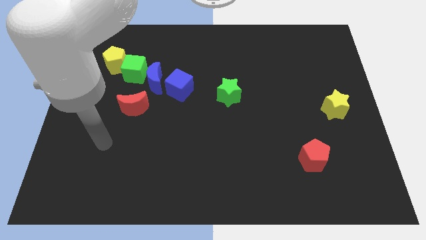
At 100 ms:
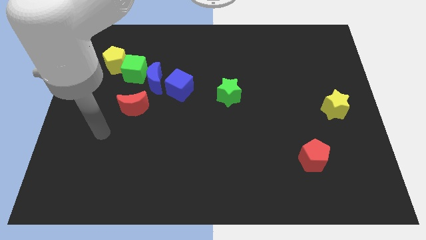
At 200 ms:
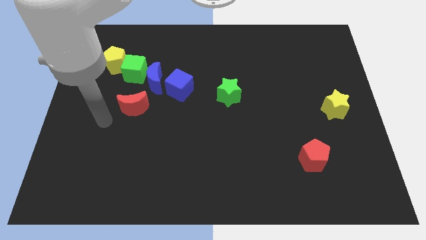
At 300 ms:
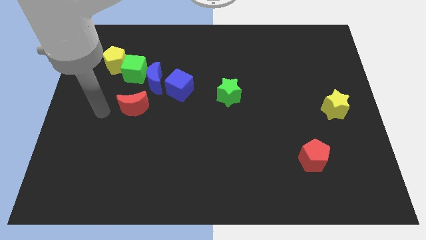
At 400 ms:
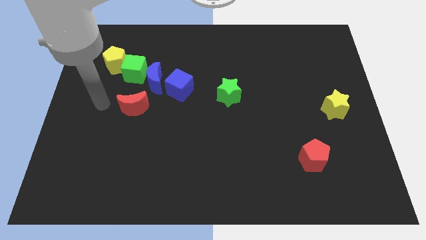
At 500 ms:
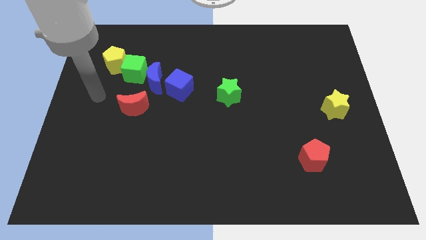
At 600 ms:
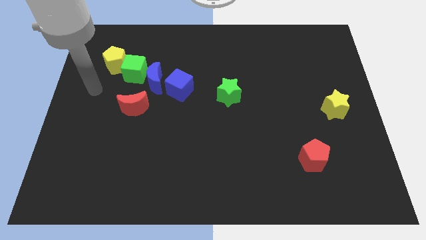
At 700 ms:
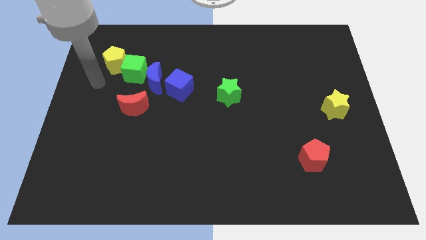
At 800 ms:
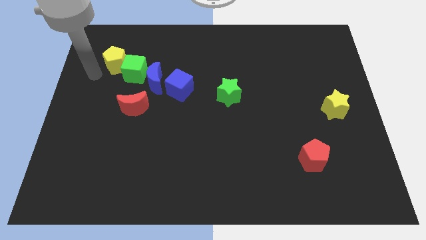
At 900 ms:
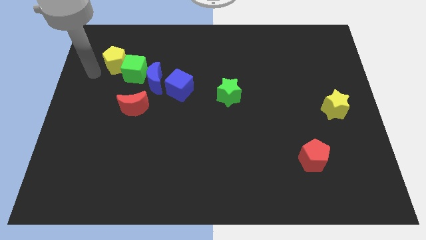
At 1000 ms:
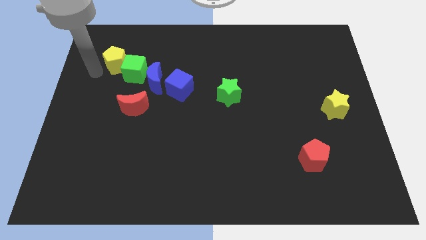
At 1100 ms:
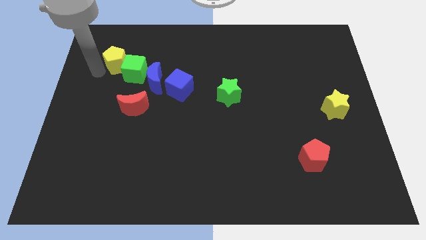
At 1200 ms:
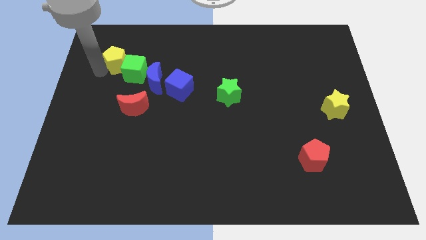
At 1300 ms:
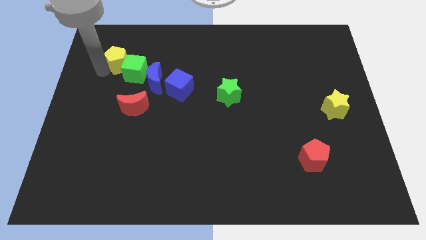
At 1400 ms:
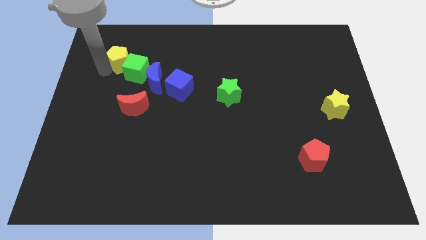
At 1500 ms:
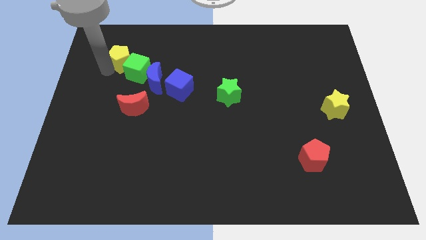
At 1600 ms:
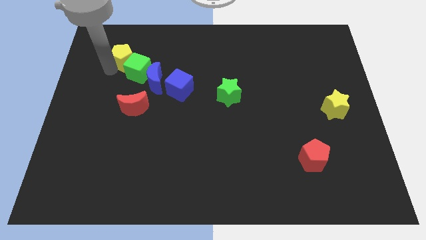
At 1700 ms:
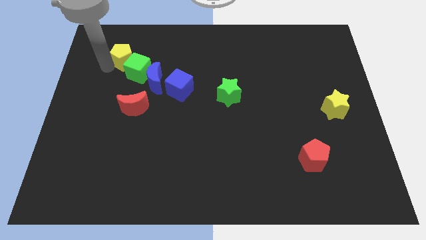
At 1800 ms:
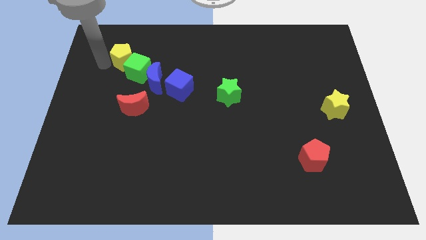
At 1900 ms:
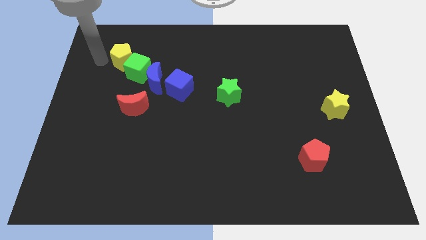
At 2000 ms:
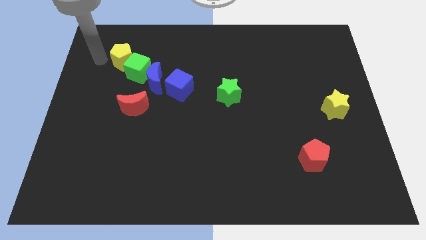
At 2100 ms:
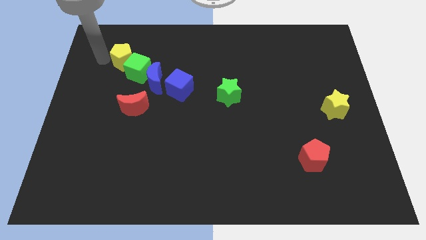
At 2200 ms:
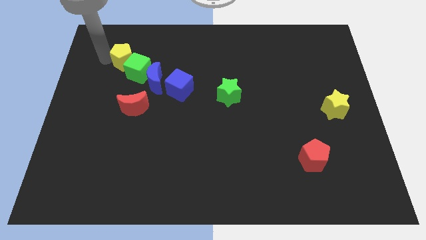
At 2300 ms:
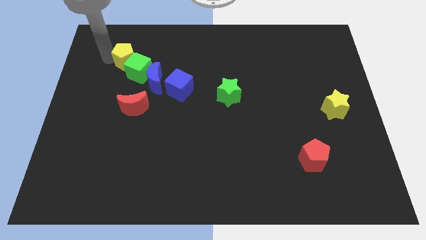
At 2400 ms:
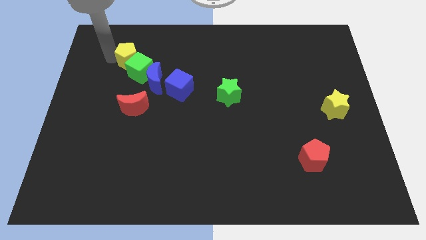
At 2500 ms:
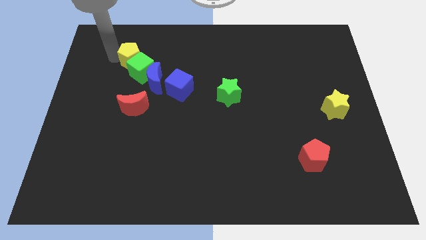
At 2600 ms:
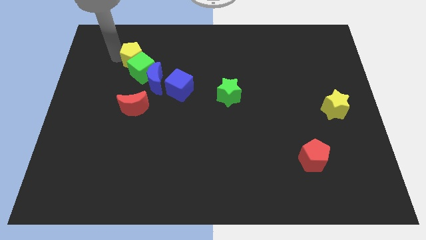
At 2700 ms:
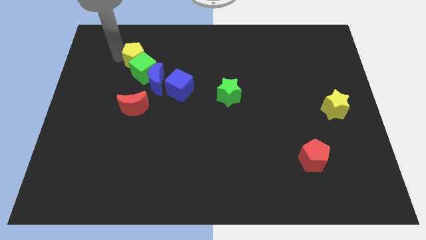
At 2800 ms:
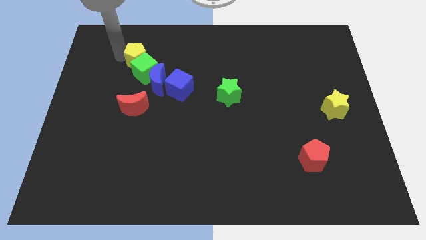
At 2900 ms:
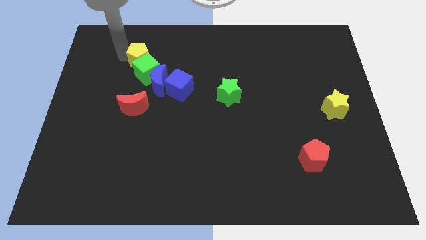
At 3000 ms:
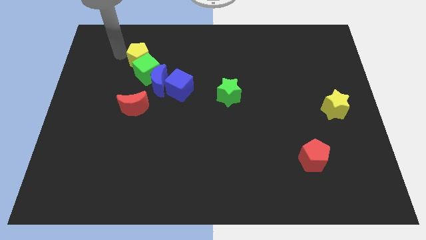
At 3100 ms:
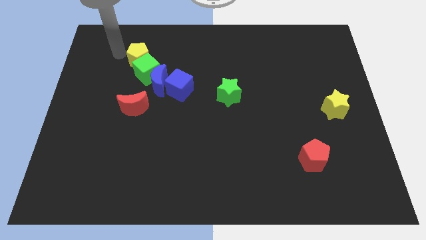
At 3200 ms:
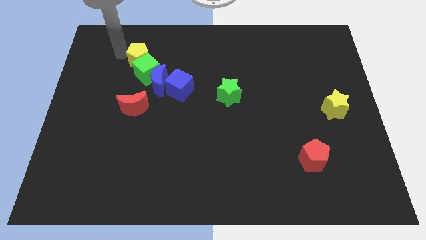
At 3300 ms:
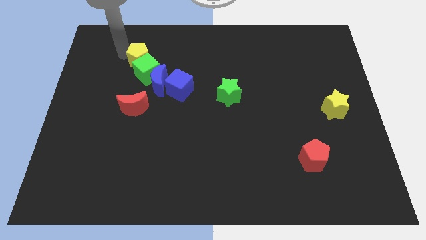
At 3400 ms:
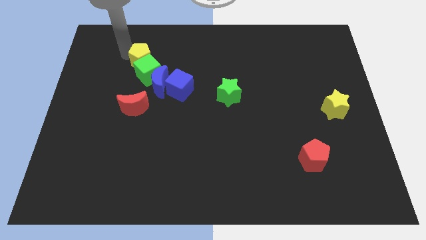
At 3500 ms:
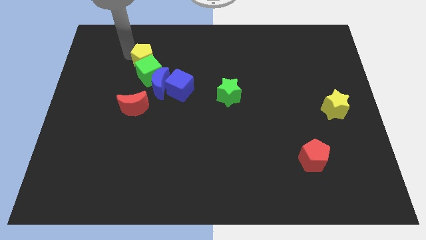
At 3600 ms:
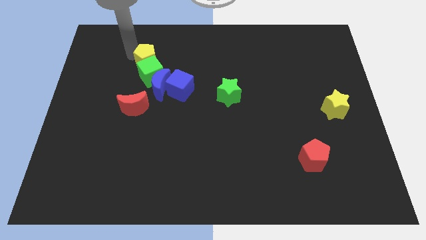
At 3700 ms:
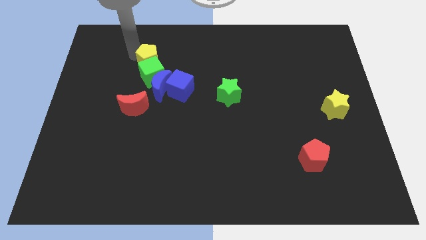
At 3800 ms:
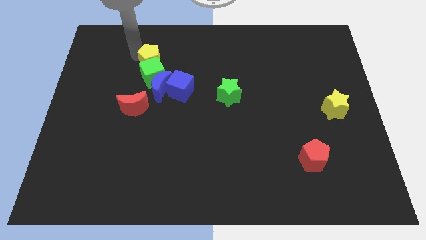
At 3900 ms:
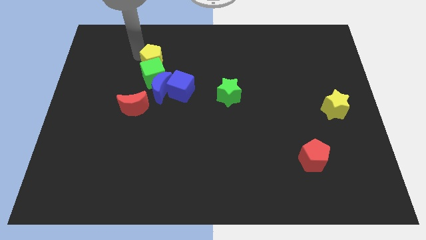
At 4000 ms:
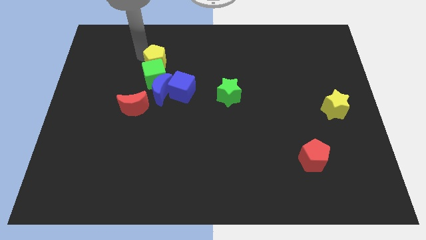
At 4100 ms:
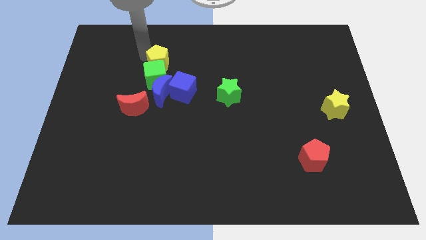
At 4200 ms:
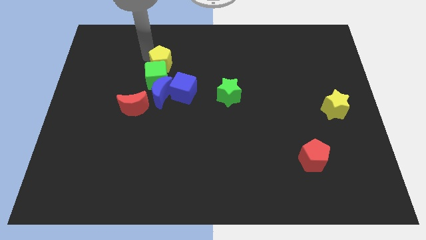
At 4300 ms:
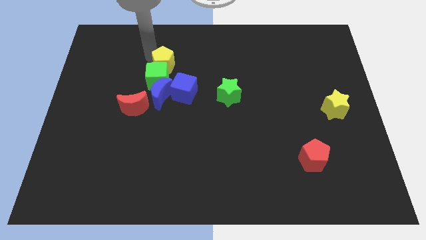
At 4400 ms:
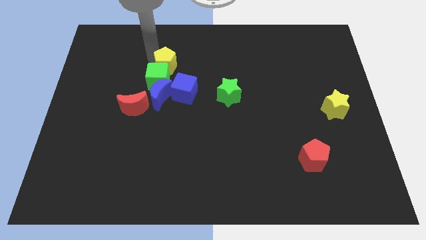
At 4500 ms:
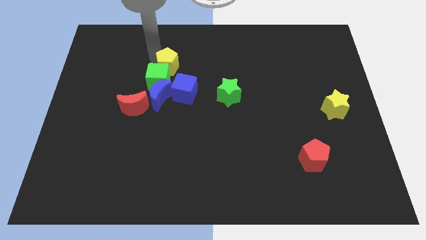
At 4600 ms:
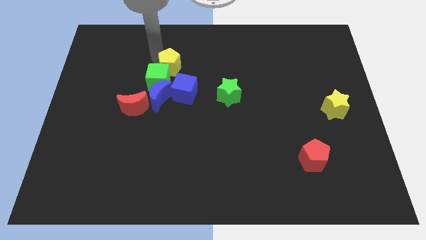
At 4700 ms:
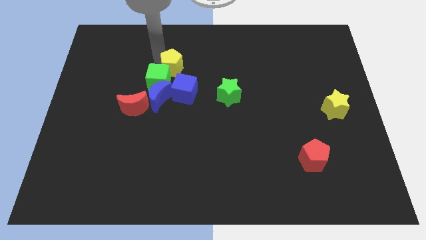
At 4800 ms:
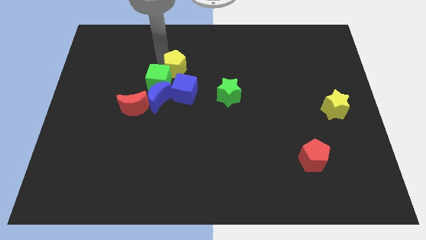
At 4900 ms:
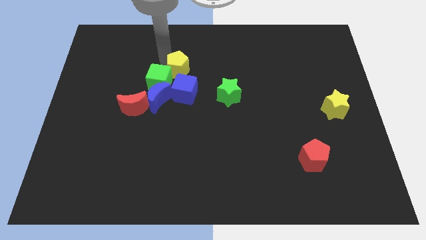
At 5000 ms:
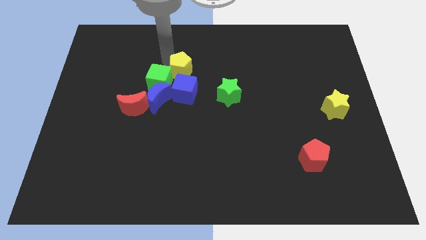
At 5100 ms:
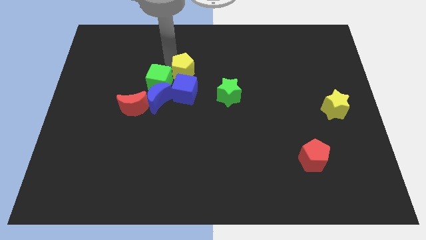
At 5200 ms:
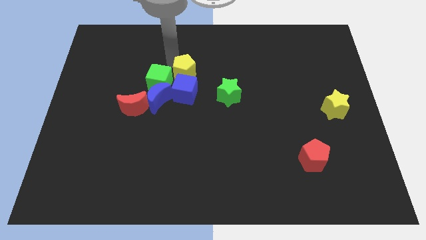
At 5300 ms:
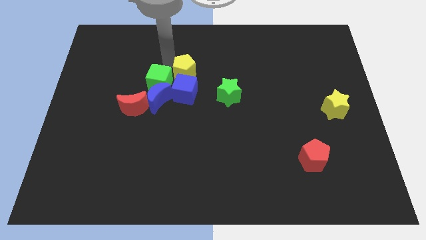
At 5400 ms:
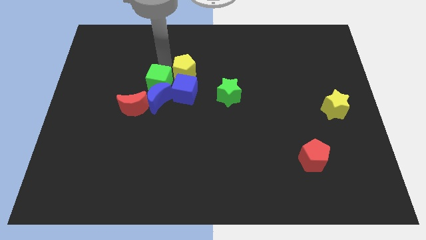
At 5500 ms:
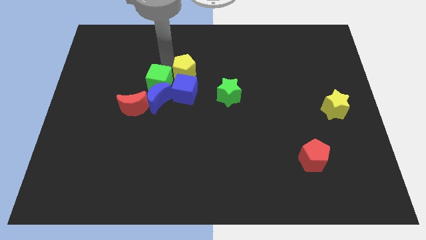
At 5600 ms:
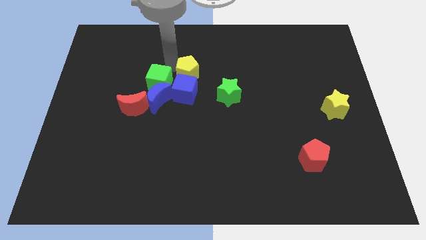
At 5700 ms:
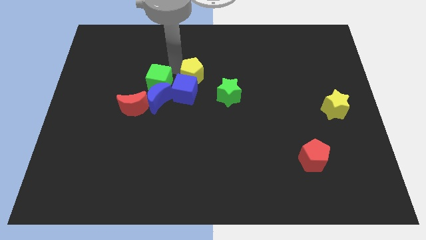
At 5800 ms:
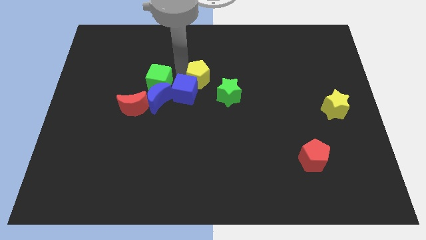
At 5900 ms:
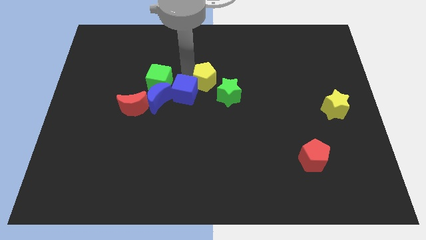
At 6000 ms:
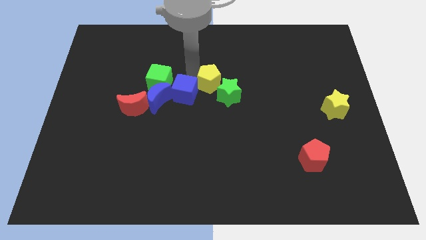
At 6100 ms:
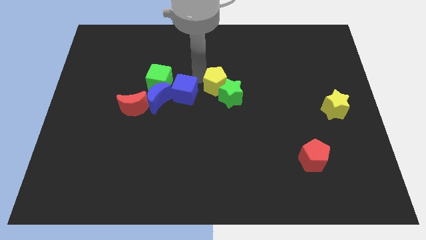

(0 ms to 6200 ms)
push the yellow pentagon to the green star
